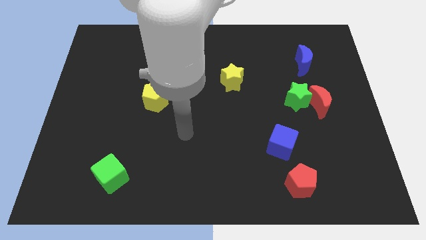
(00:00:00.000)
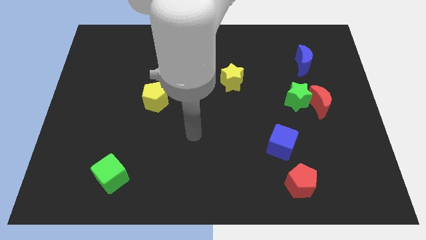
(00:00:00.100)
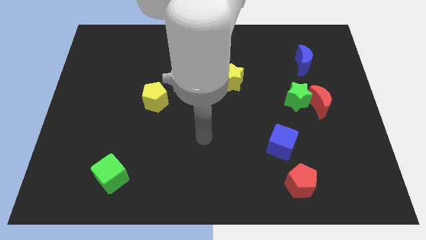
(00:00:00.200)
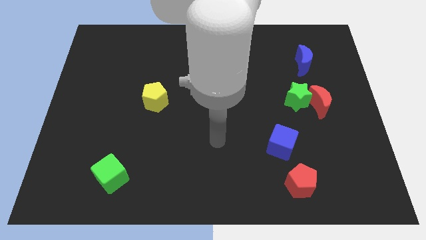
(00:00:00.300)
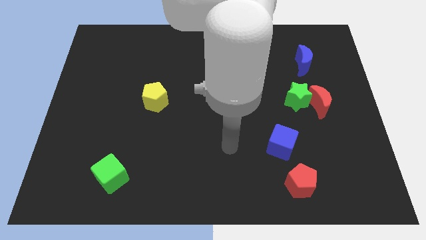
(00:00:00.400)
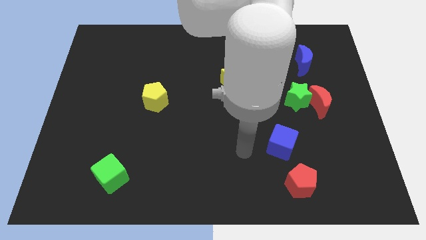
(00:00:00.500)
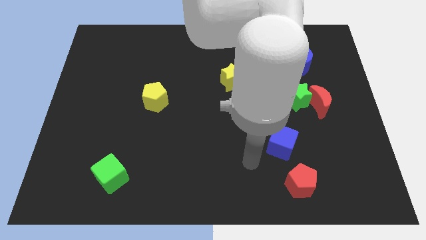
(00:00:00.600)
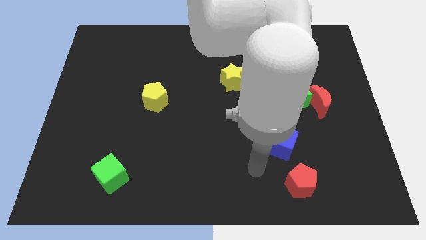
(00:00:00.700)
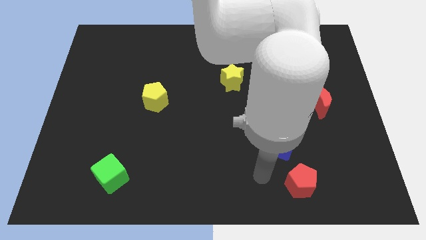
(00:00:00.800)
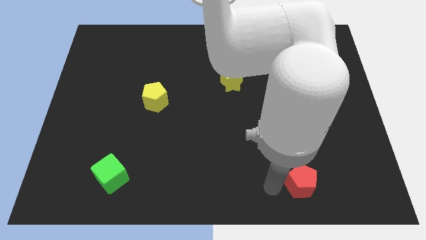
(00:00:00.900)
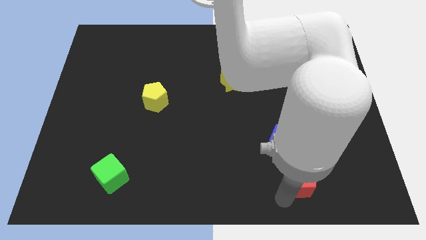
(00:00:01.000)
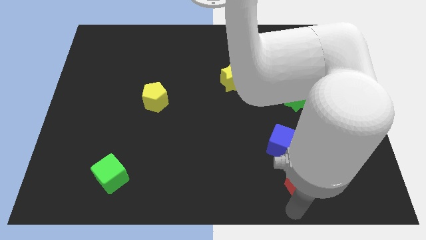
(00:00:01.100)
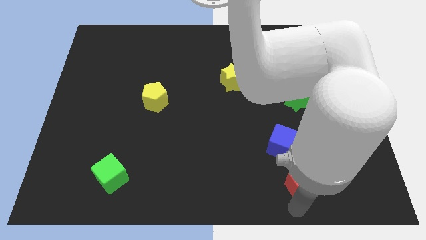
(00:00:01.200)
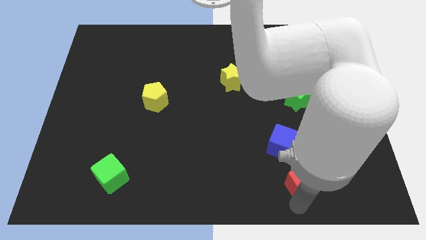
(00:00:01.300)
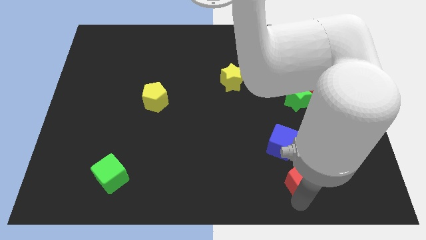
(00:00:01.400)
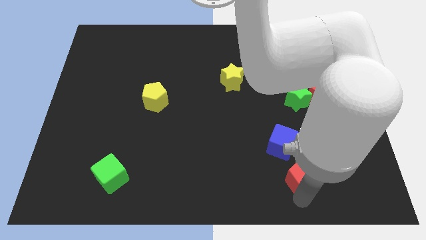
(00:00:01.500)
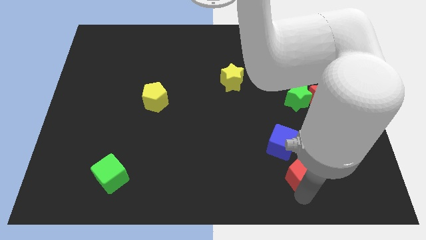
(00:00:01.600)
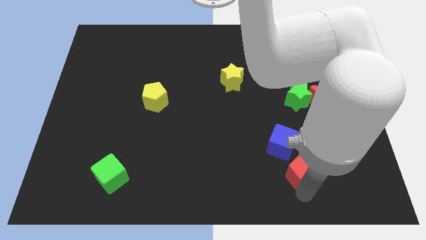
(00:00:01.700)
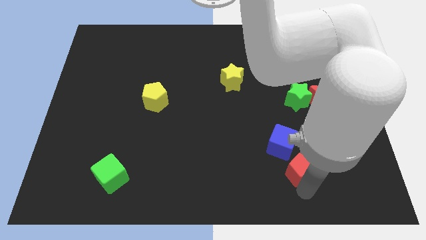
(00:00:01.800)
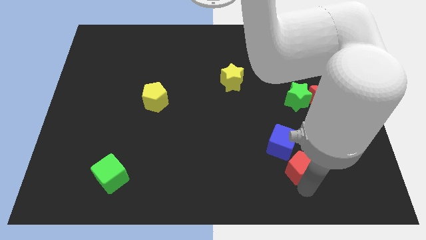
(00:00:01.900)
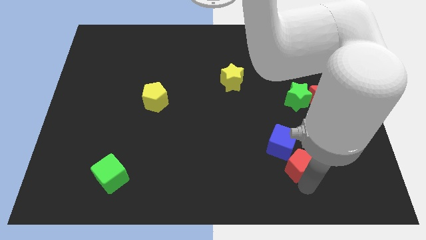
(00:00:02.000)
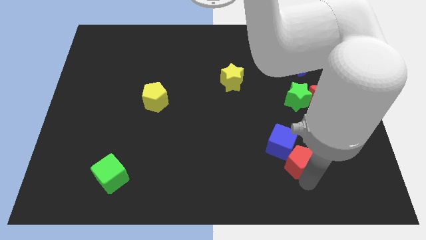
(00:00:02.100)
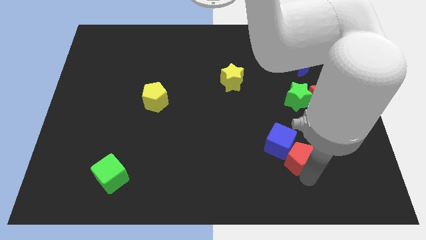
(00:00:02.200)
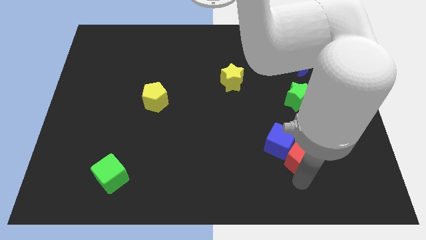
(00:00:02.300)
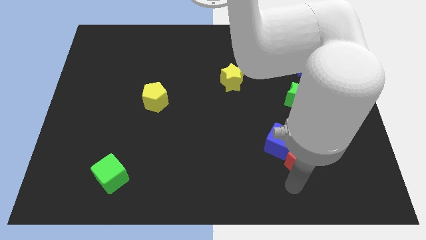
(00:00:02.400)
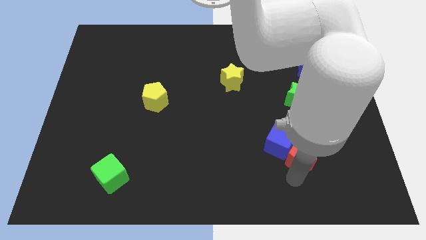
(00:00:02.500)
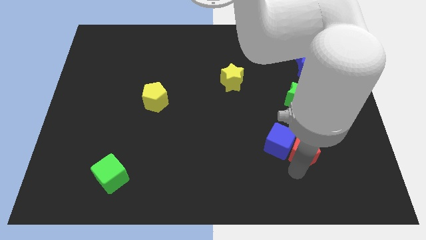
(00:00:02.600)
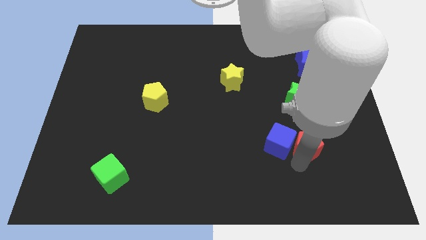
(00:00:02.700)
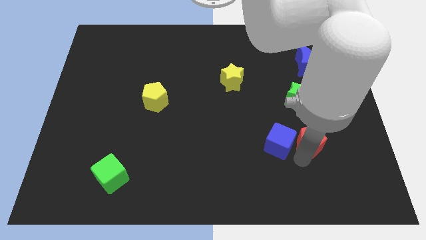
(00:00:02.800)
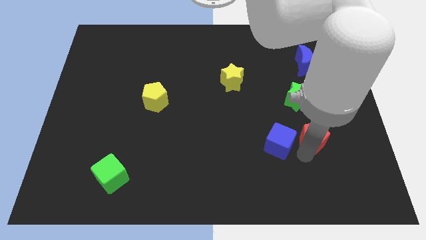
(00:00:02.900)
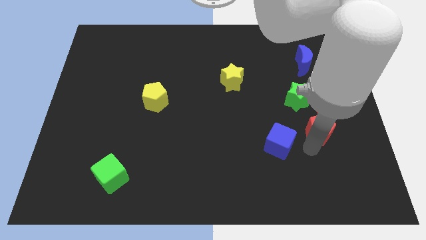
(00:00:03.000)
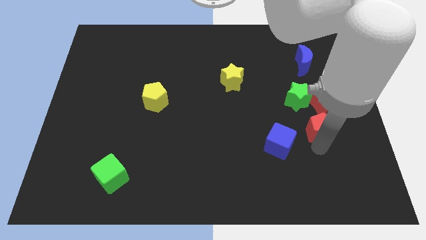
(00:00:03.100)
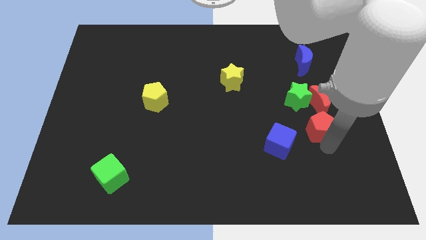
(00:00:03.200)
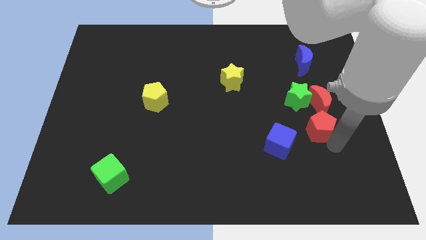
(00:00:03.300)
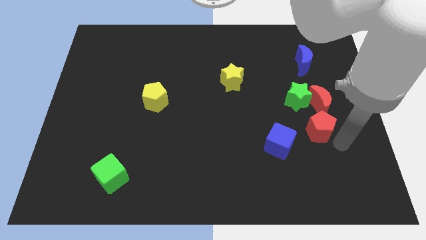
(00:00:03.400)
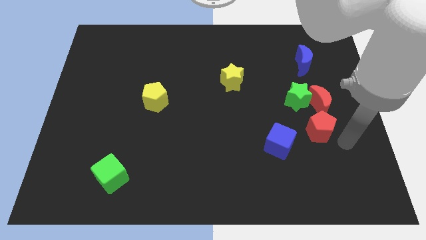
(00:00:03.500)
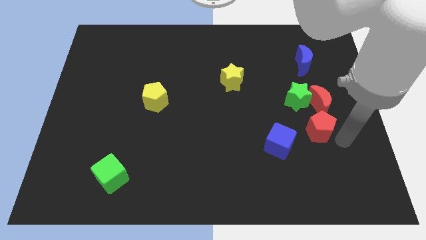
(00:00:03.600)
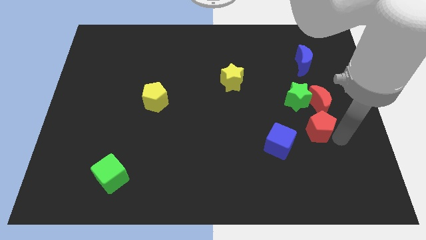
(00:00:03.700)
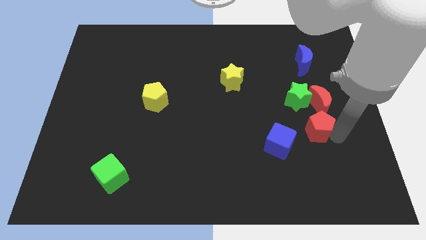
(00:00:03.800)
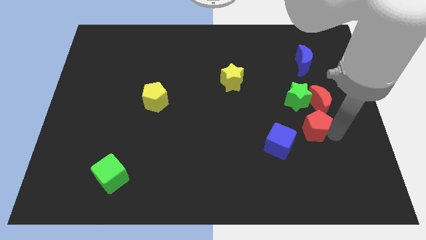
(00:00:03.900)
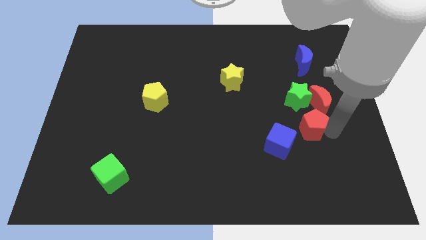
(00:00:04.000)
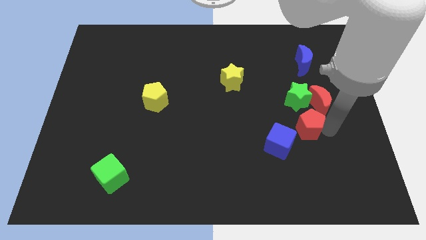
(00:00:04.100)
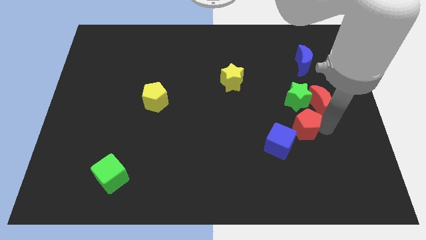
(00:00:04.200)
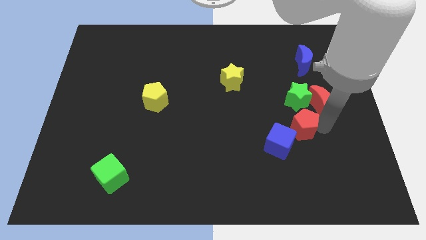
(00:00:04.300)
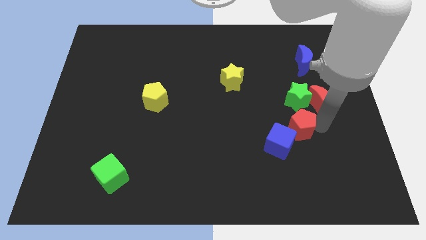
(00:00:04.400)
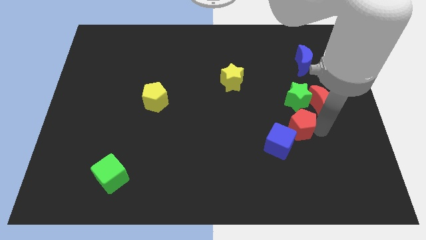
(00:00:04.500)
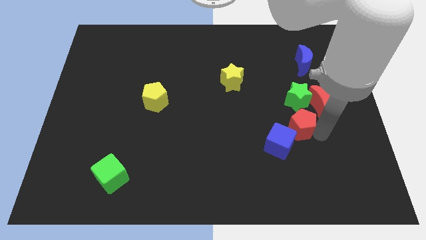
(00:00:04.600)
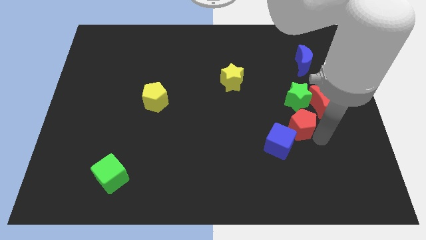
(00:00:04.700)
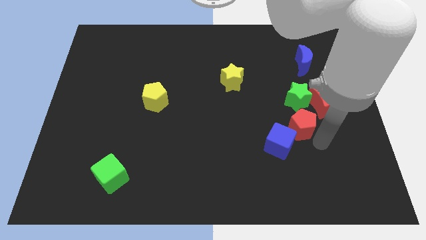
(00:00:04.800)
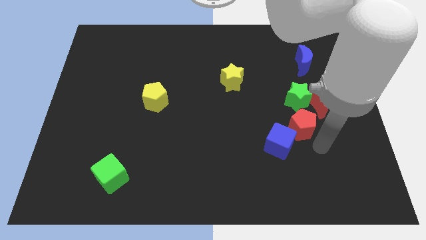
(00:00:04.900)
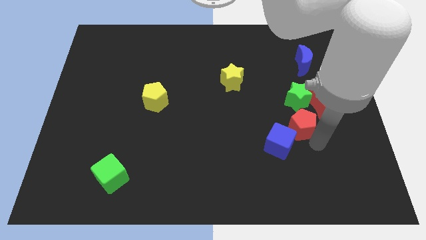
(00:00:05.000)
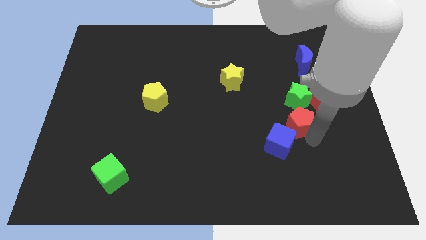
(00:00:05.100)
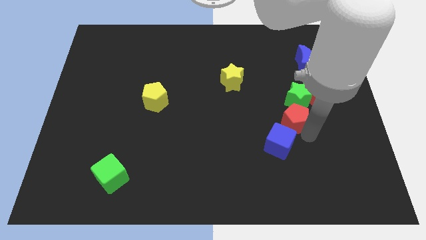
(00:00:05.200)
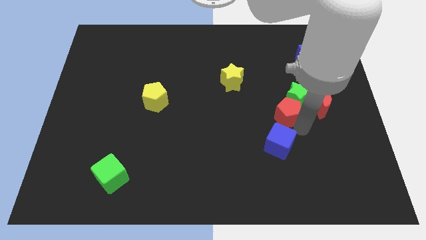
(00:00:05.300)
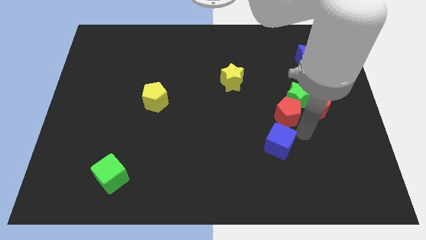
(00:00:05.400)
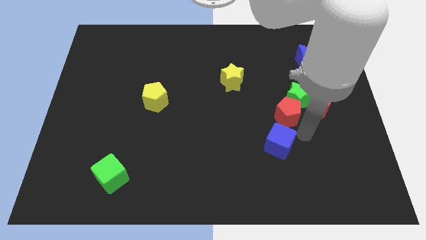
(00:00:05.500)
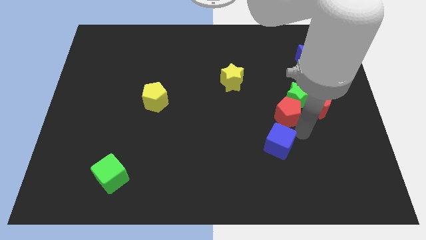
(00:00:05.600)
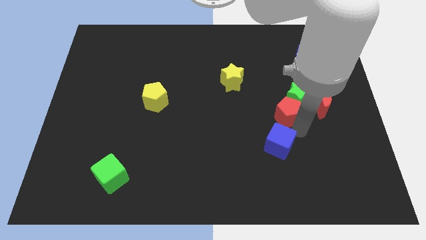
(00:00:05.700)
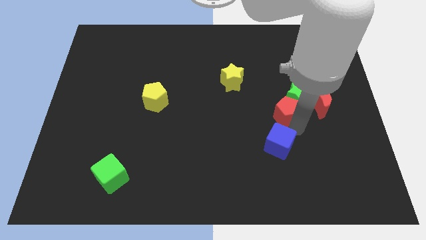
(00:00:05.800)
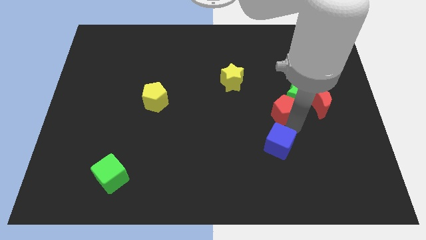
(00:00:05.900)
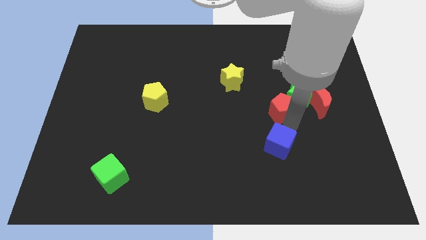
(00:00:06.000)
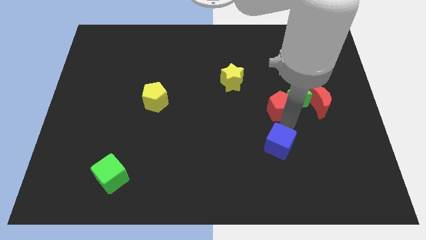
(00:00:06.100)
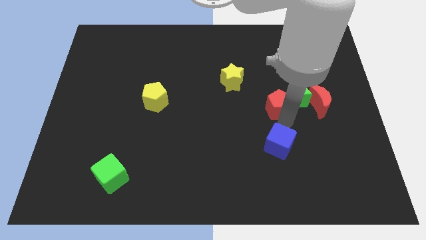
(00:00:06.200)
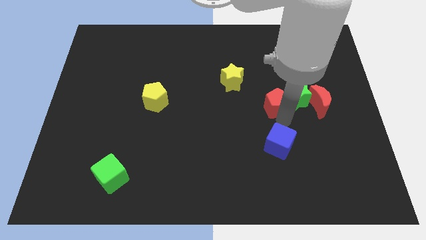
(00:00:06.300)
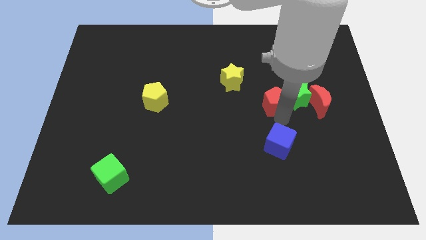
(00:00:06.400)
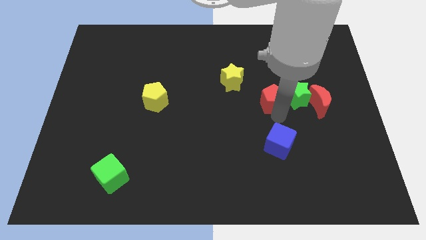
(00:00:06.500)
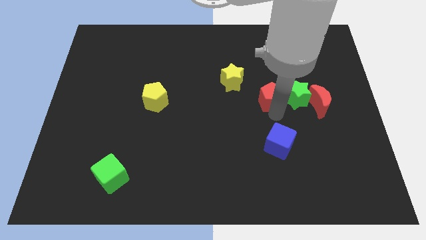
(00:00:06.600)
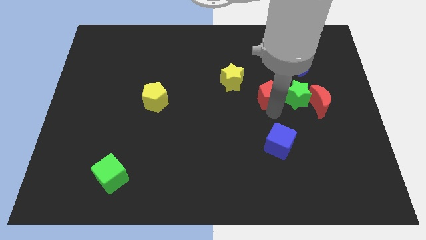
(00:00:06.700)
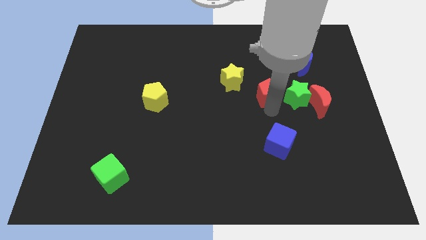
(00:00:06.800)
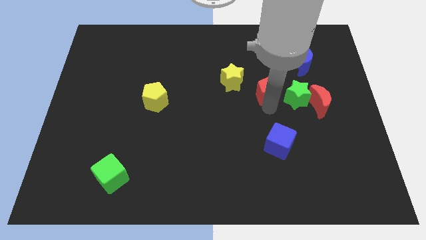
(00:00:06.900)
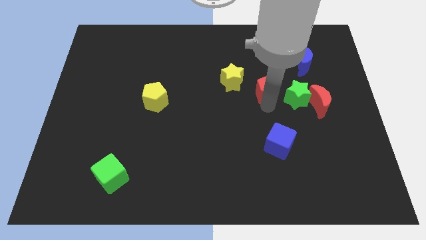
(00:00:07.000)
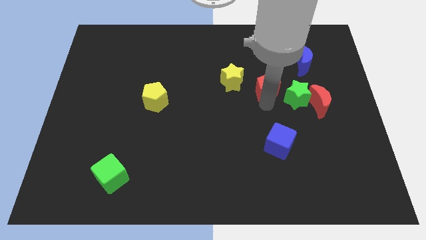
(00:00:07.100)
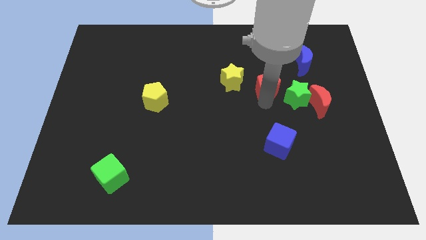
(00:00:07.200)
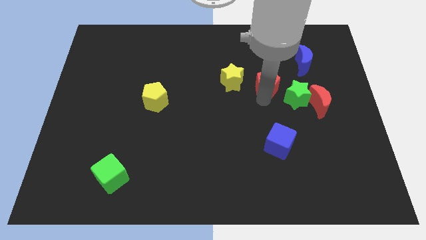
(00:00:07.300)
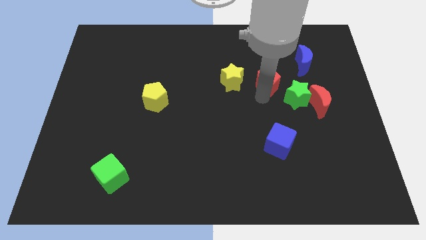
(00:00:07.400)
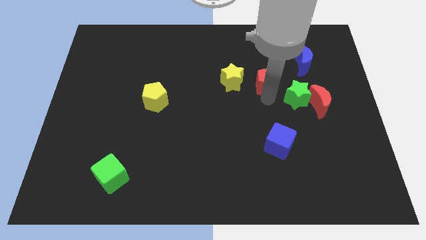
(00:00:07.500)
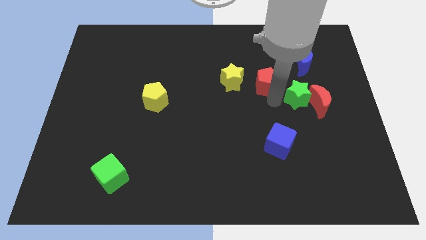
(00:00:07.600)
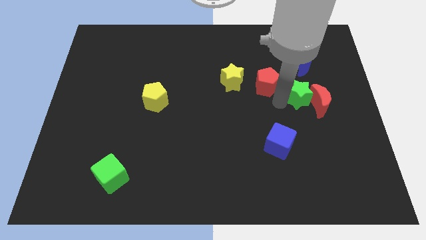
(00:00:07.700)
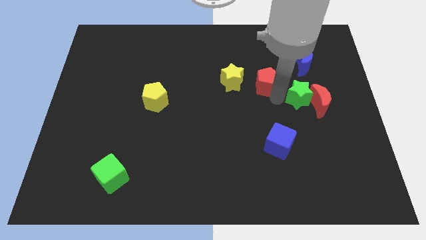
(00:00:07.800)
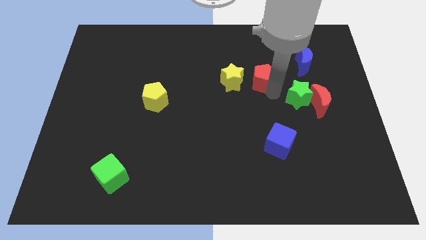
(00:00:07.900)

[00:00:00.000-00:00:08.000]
move the red pentagon to the top right of the yellow star
